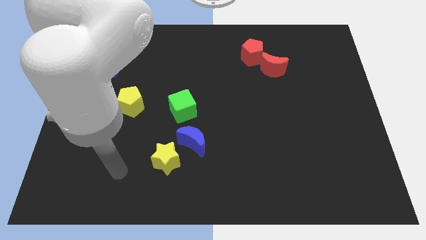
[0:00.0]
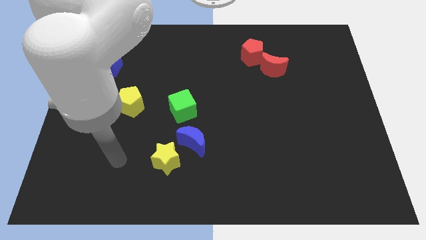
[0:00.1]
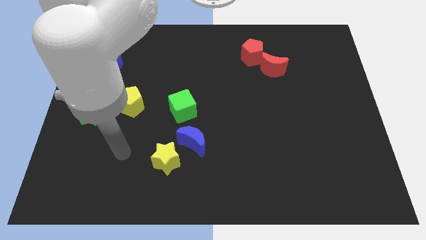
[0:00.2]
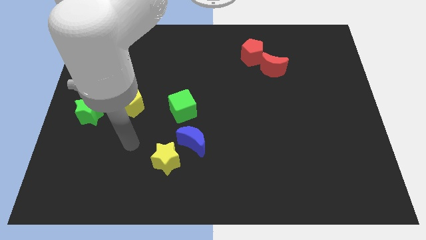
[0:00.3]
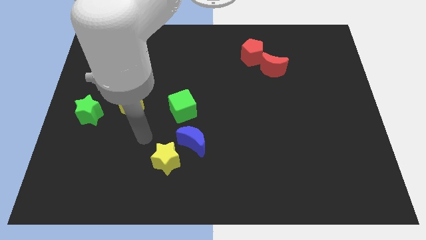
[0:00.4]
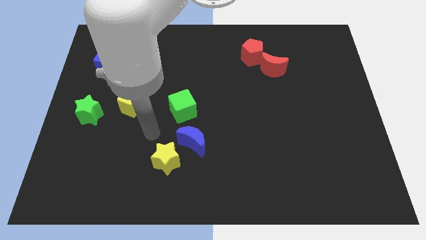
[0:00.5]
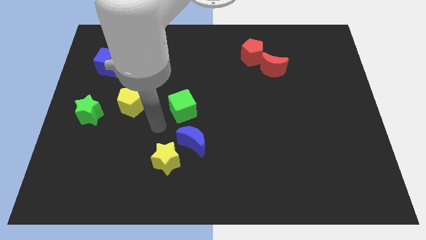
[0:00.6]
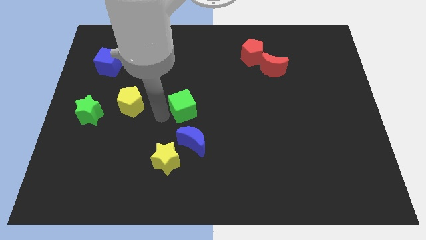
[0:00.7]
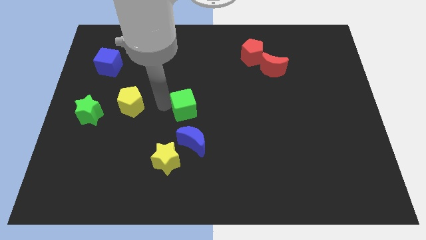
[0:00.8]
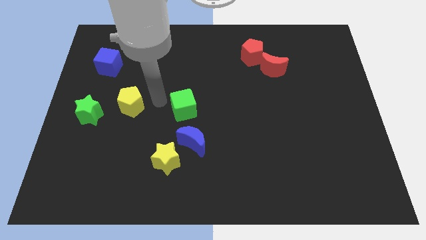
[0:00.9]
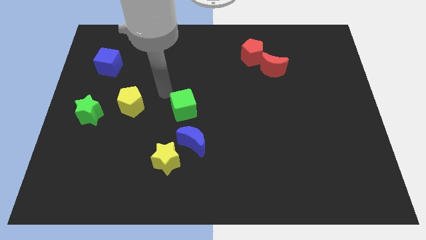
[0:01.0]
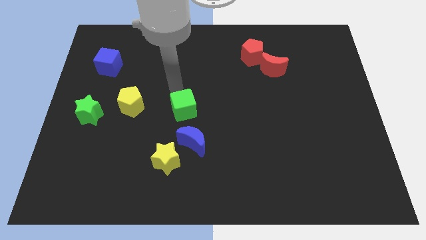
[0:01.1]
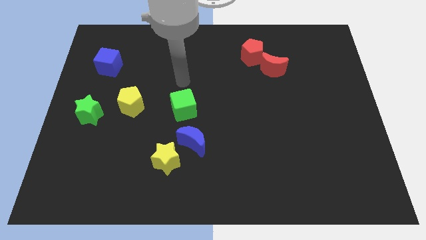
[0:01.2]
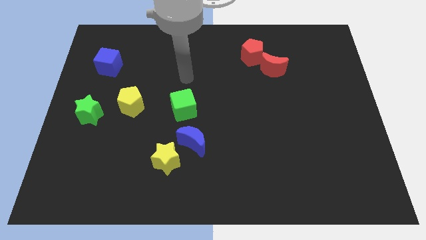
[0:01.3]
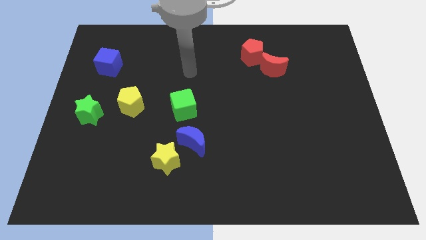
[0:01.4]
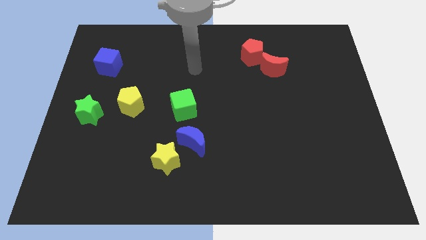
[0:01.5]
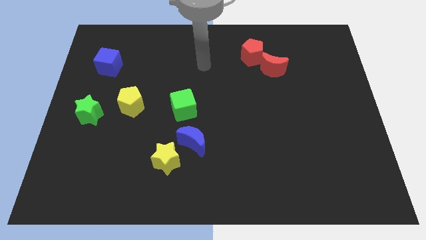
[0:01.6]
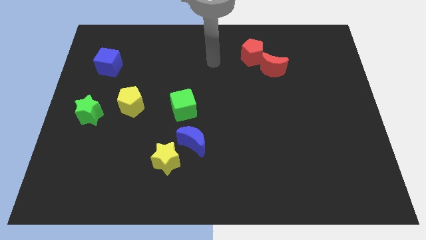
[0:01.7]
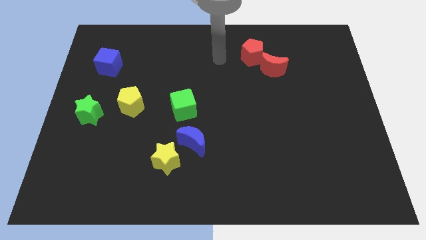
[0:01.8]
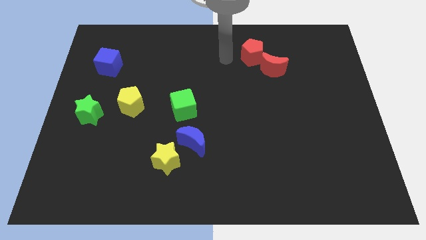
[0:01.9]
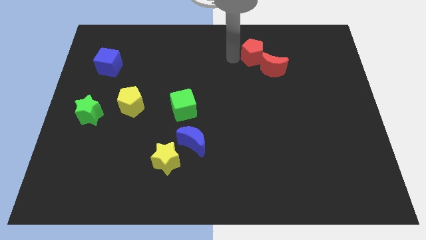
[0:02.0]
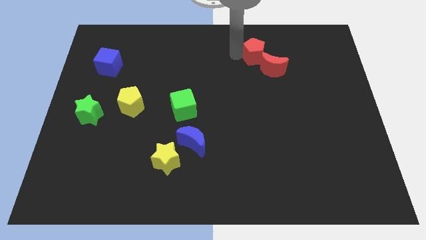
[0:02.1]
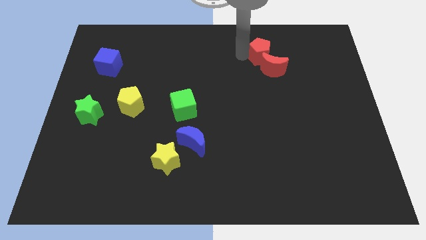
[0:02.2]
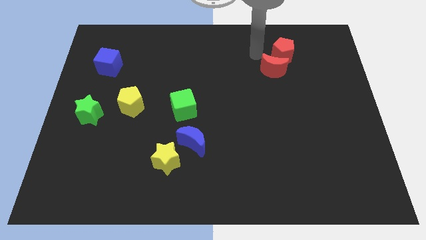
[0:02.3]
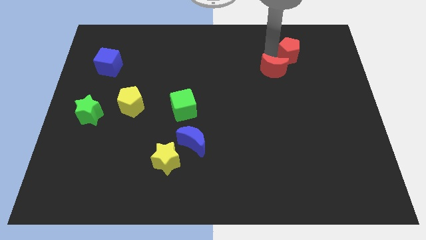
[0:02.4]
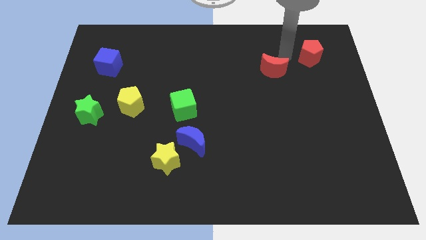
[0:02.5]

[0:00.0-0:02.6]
move the red moon away from the red pentagon

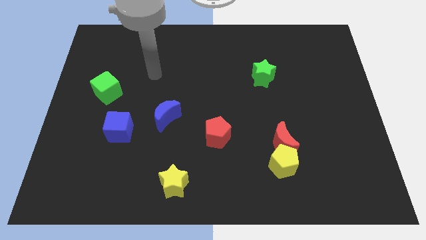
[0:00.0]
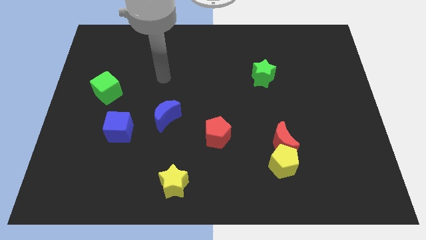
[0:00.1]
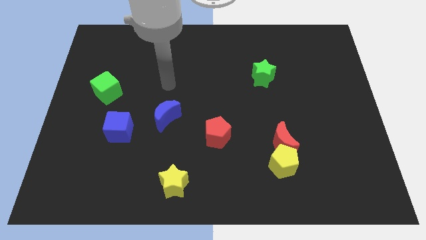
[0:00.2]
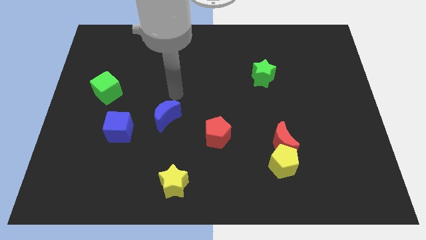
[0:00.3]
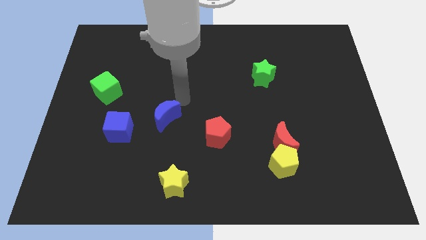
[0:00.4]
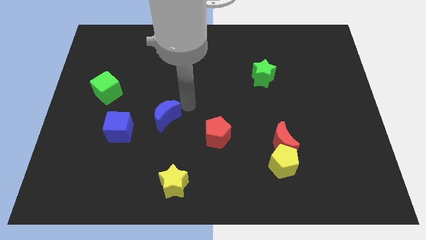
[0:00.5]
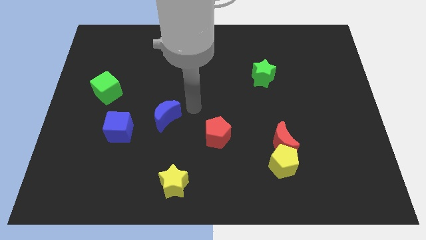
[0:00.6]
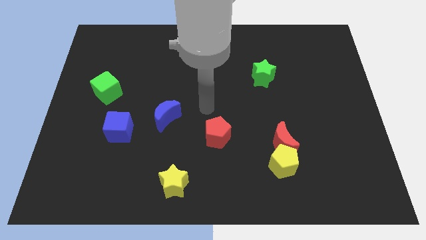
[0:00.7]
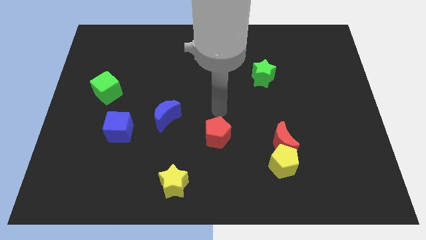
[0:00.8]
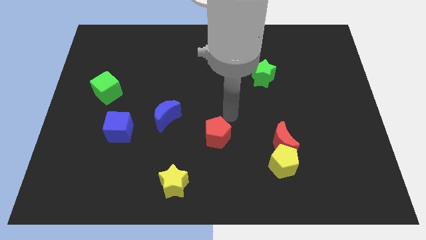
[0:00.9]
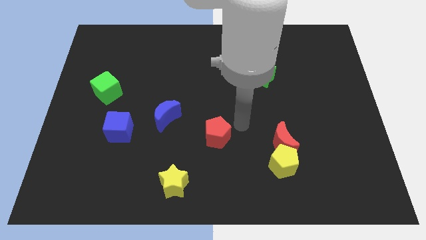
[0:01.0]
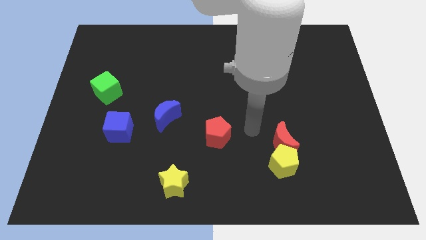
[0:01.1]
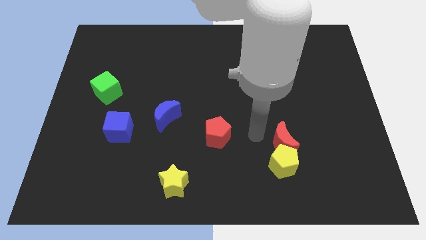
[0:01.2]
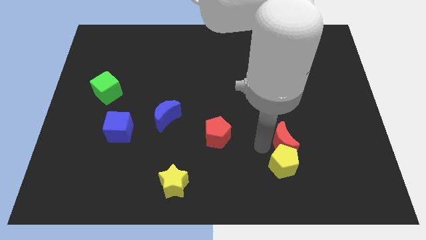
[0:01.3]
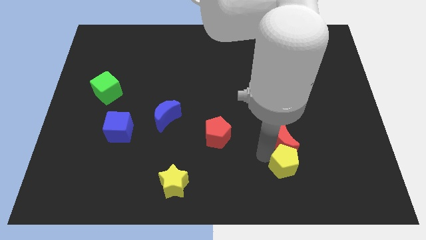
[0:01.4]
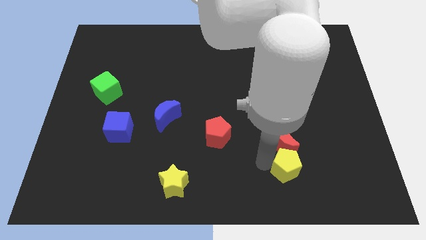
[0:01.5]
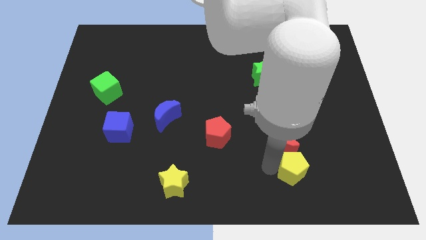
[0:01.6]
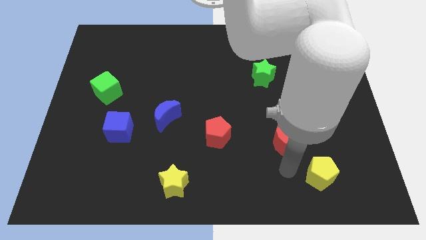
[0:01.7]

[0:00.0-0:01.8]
move the red moon away from the yellow pentagon

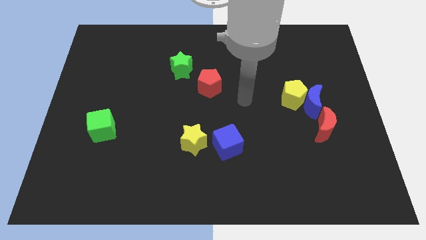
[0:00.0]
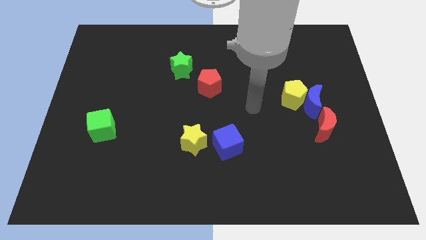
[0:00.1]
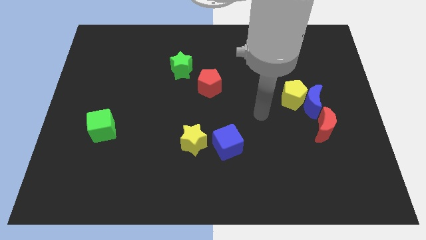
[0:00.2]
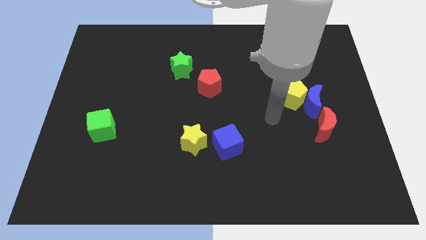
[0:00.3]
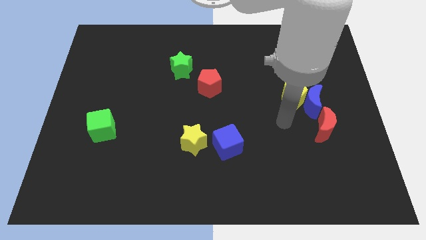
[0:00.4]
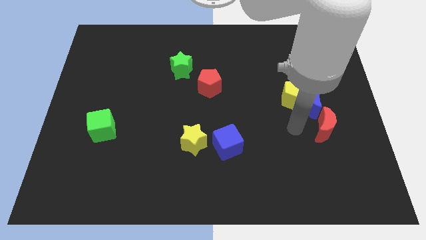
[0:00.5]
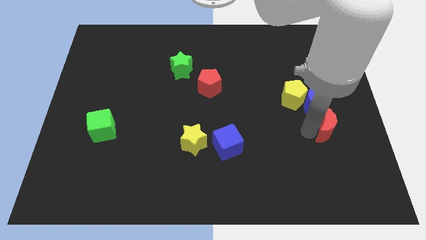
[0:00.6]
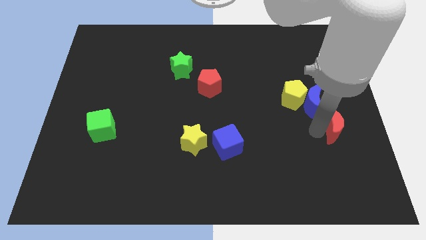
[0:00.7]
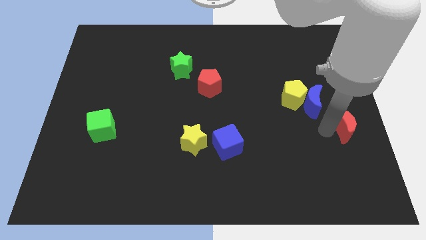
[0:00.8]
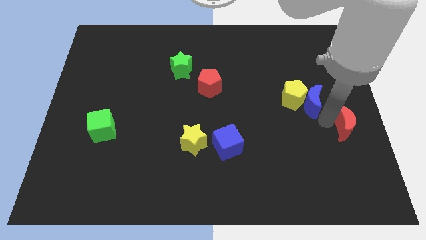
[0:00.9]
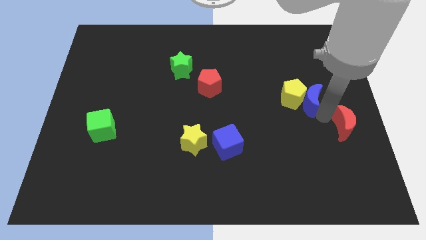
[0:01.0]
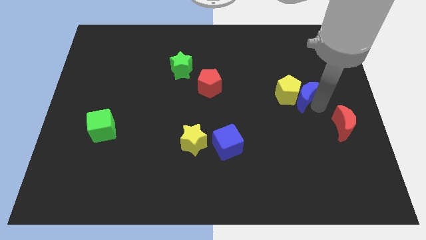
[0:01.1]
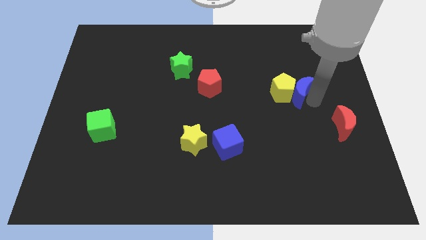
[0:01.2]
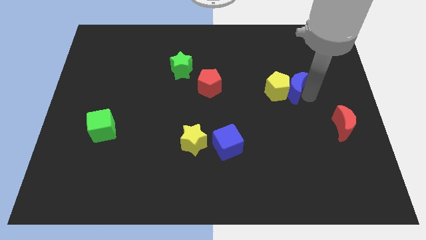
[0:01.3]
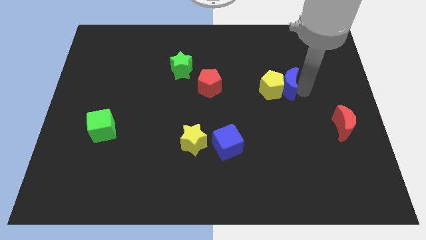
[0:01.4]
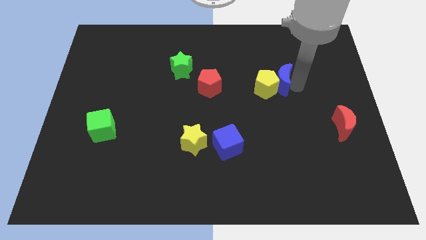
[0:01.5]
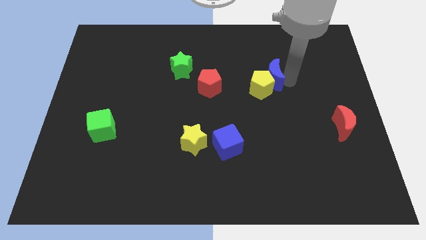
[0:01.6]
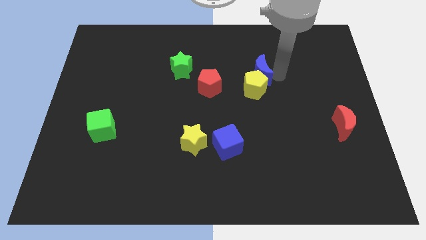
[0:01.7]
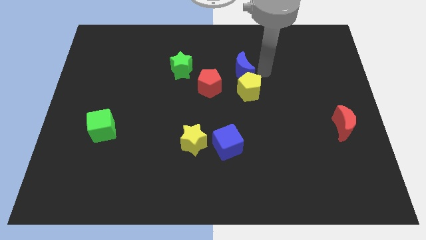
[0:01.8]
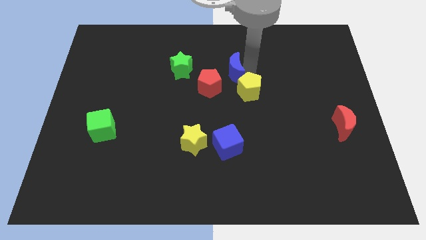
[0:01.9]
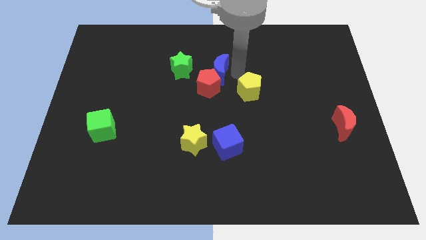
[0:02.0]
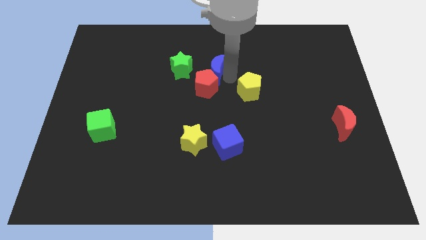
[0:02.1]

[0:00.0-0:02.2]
move the yellow pentagon away from the blue moon

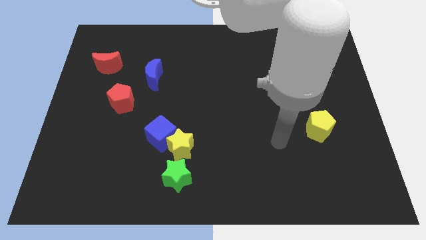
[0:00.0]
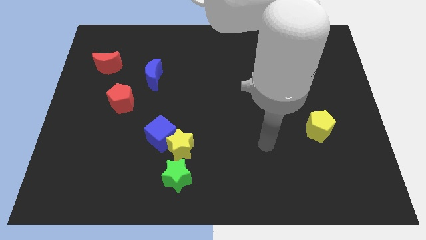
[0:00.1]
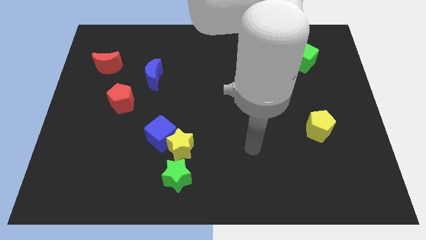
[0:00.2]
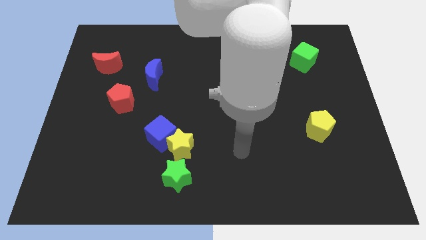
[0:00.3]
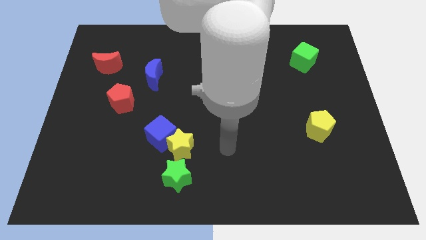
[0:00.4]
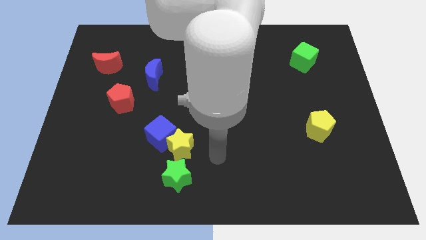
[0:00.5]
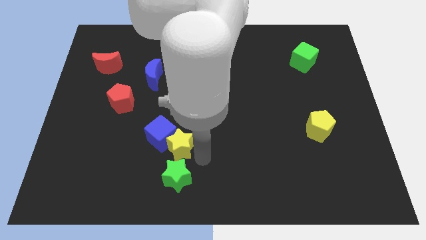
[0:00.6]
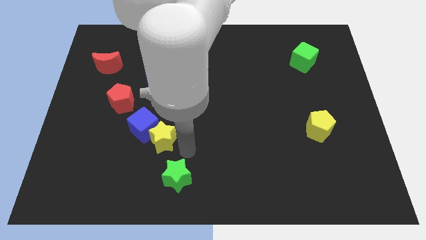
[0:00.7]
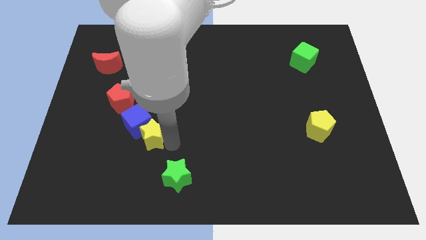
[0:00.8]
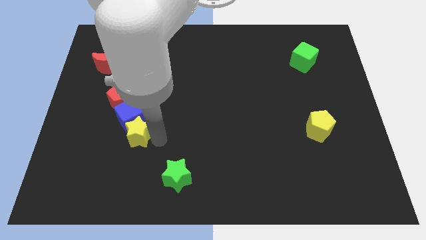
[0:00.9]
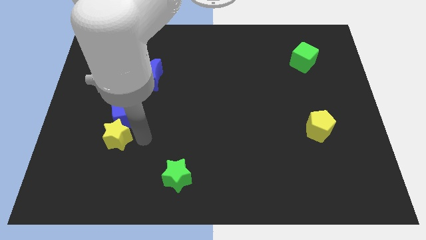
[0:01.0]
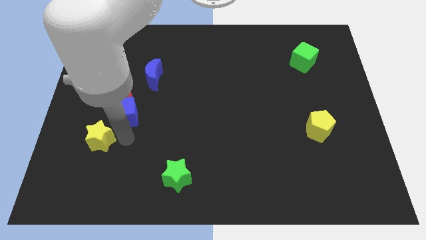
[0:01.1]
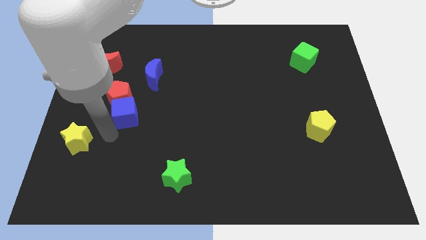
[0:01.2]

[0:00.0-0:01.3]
separate the blue cube from the yellow star

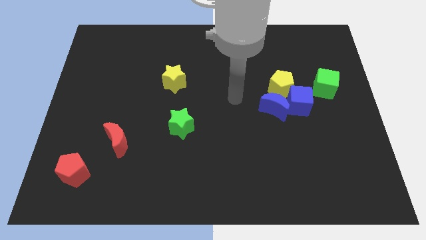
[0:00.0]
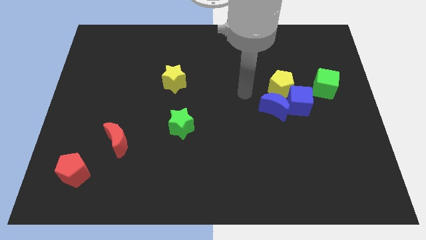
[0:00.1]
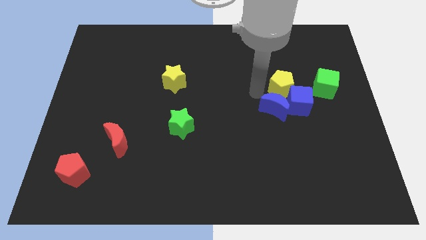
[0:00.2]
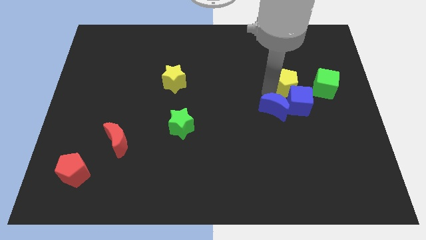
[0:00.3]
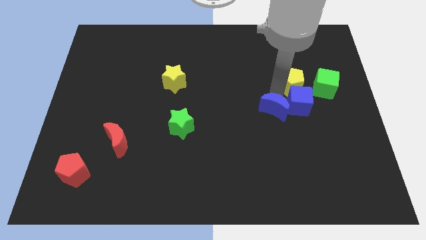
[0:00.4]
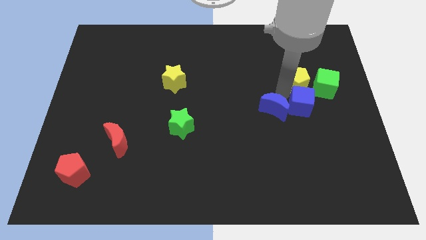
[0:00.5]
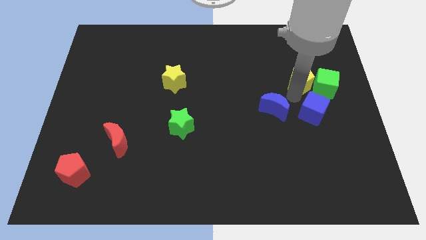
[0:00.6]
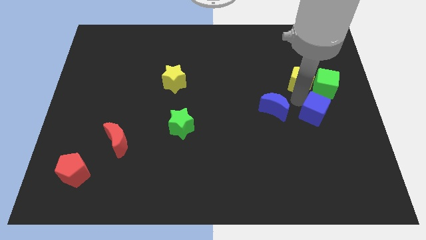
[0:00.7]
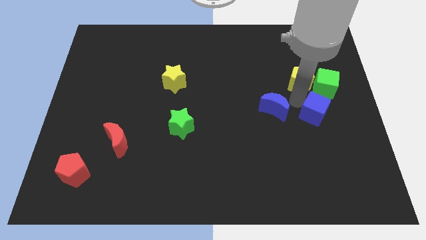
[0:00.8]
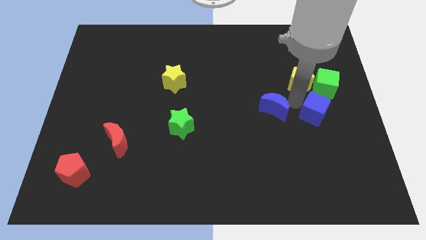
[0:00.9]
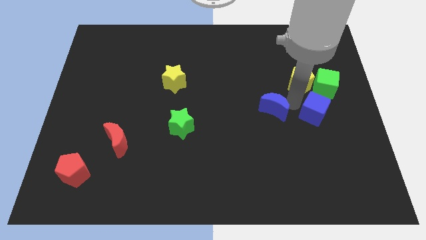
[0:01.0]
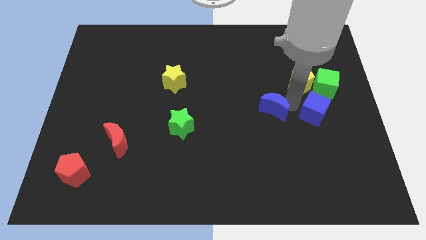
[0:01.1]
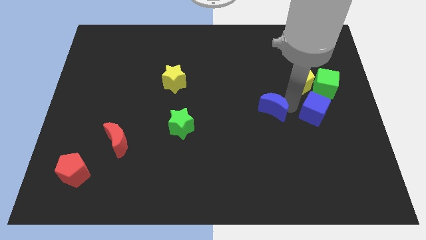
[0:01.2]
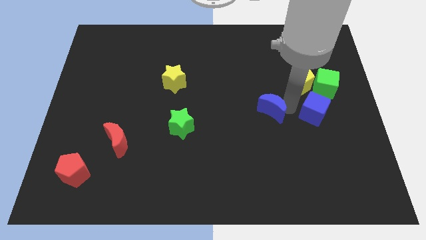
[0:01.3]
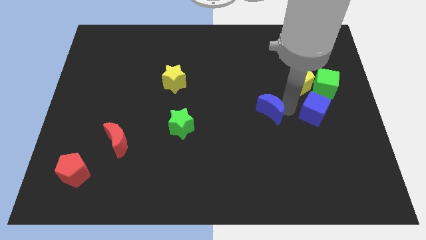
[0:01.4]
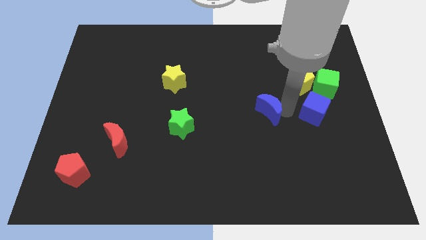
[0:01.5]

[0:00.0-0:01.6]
pull the blue moon apart from the blue cube and yellow pentagon
